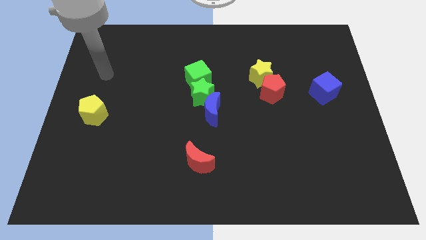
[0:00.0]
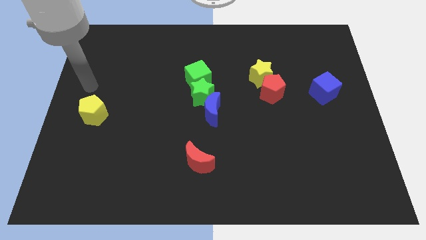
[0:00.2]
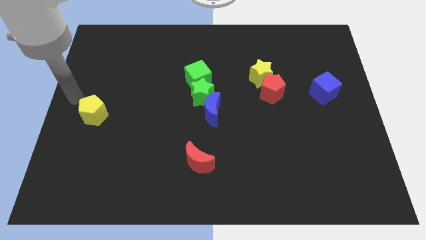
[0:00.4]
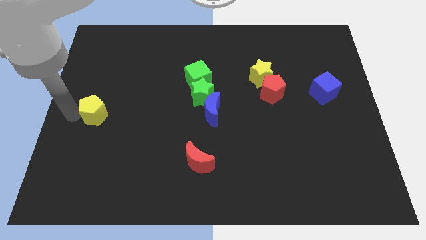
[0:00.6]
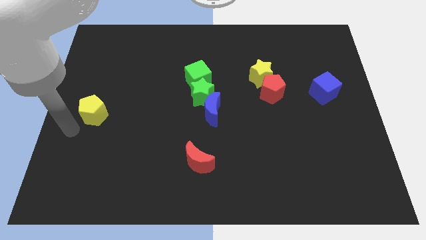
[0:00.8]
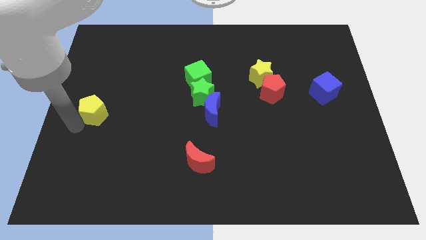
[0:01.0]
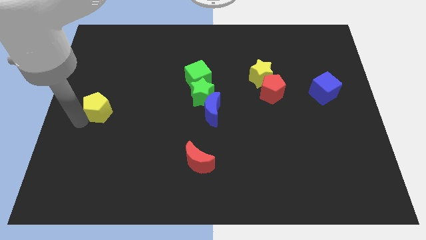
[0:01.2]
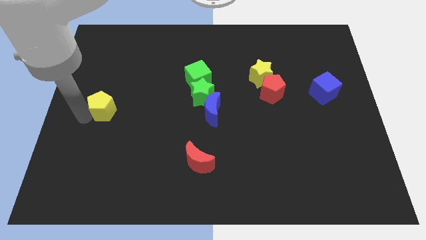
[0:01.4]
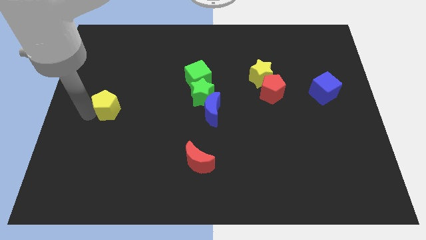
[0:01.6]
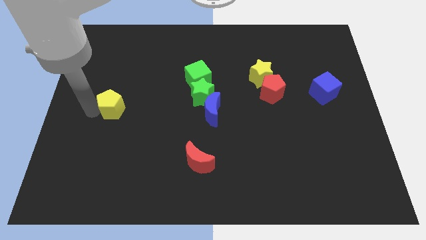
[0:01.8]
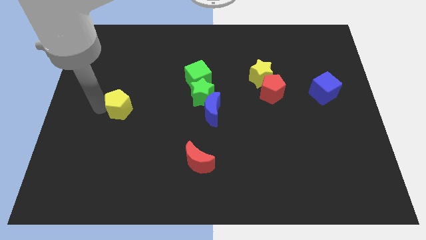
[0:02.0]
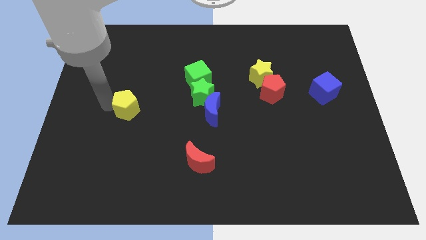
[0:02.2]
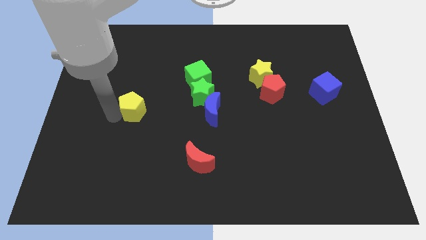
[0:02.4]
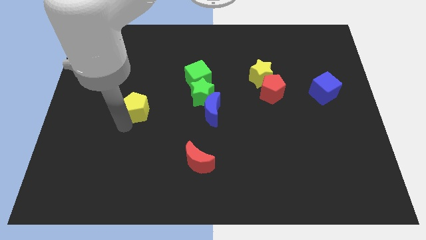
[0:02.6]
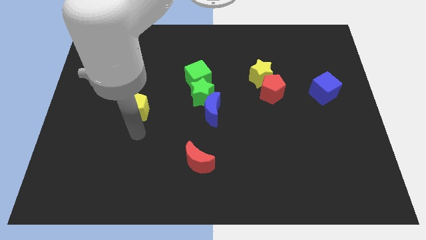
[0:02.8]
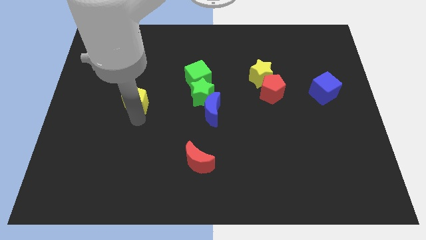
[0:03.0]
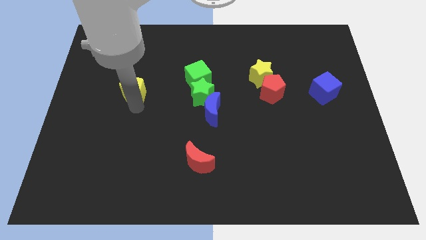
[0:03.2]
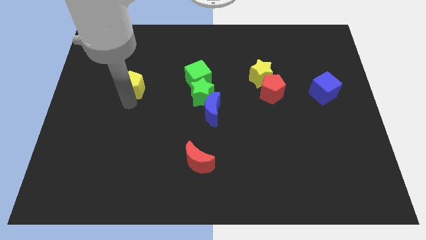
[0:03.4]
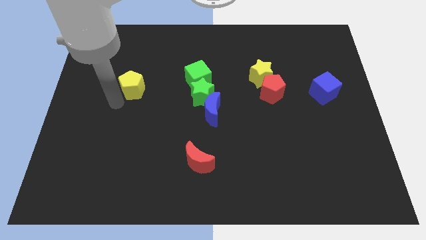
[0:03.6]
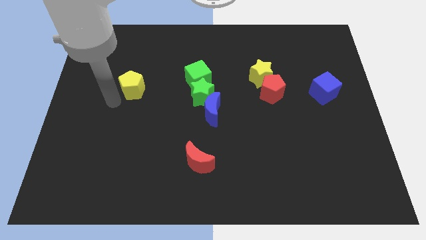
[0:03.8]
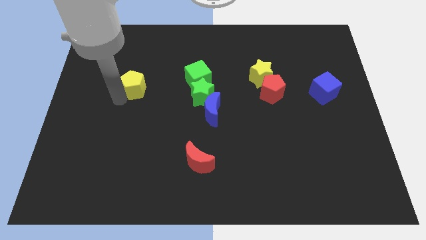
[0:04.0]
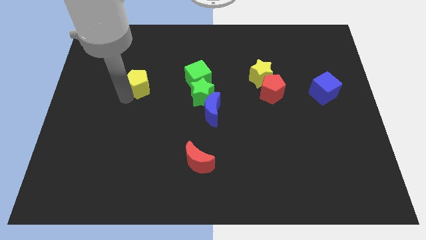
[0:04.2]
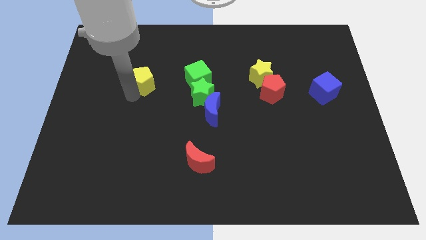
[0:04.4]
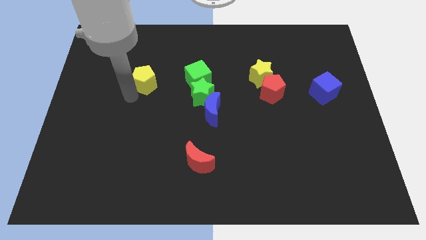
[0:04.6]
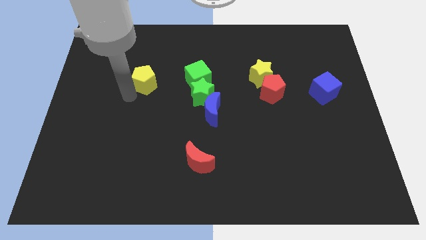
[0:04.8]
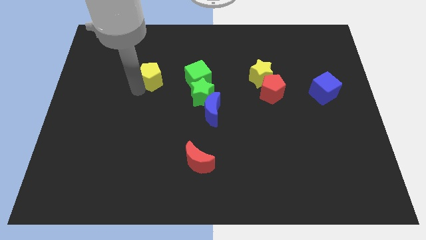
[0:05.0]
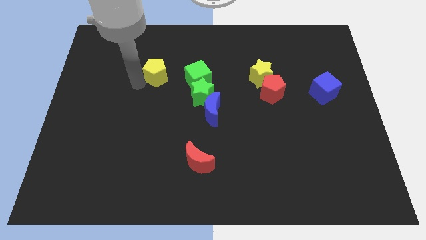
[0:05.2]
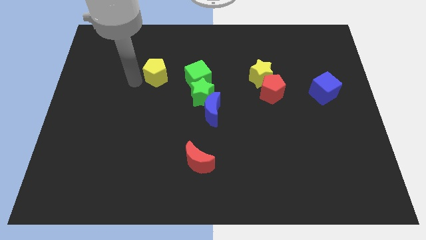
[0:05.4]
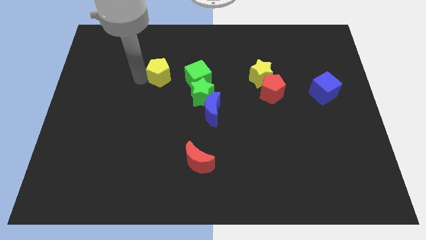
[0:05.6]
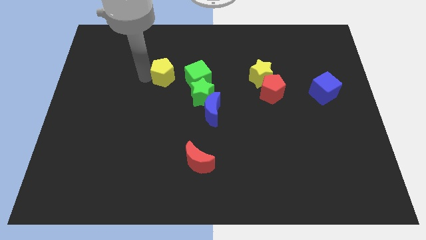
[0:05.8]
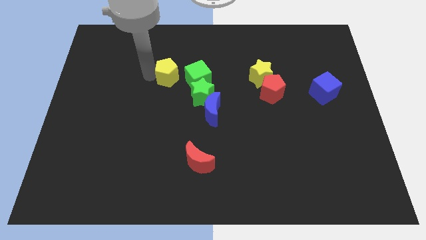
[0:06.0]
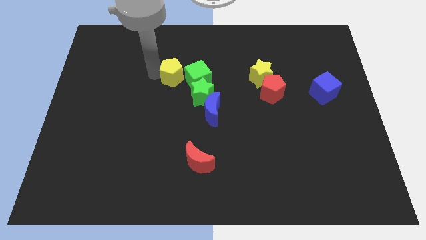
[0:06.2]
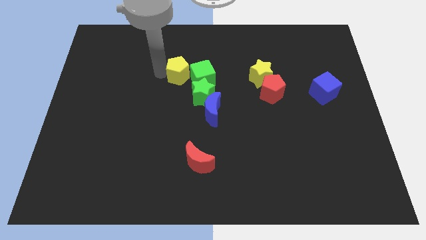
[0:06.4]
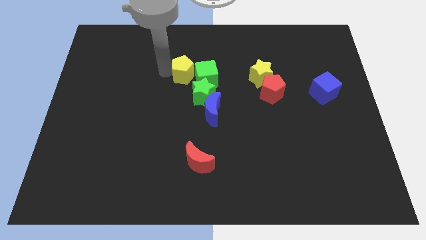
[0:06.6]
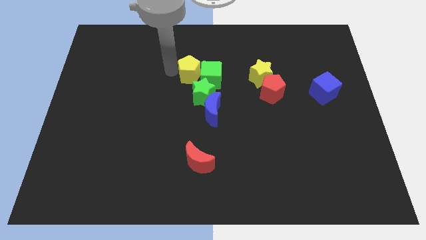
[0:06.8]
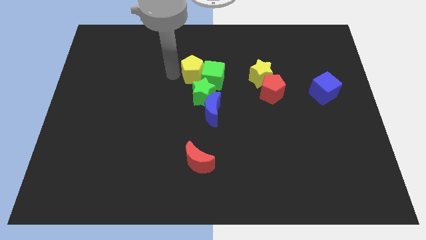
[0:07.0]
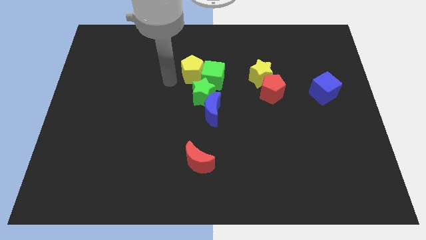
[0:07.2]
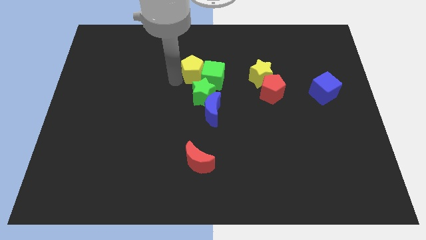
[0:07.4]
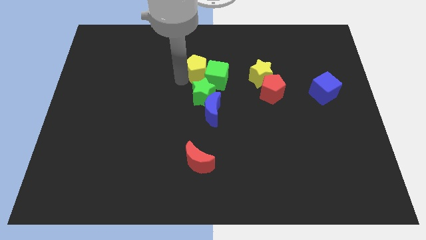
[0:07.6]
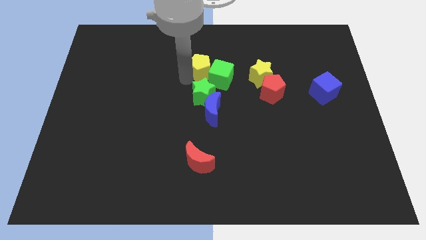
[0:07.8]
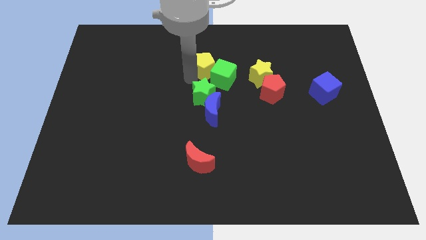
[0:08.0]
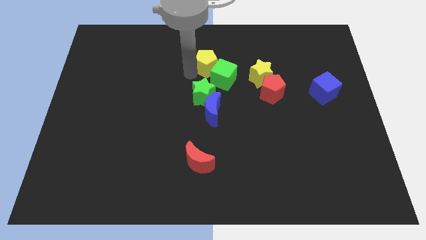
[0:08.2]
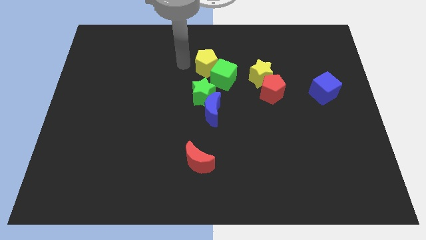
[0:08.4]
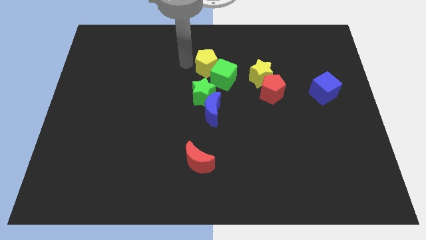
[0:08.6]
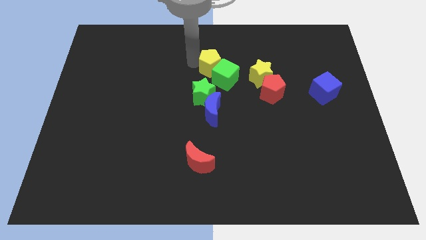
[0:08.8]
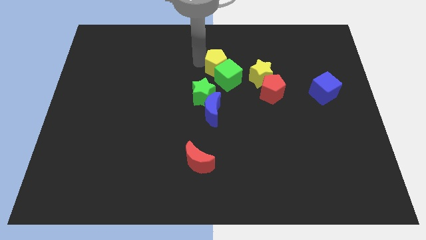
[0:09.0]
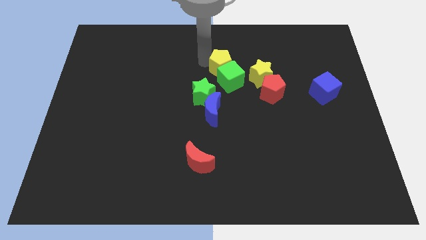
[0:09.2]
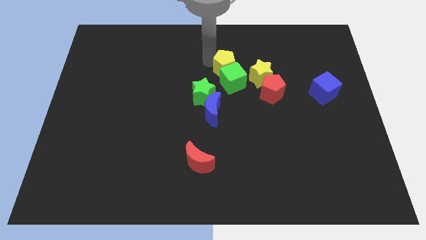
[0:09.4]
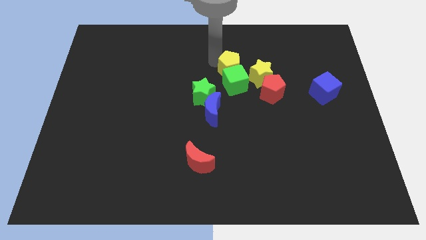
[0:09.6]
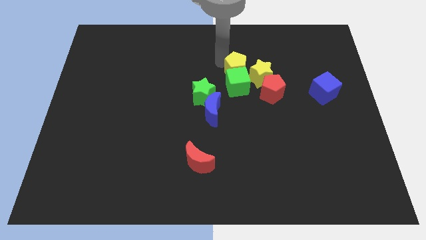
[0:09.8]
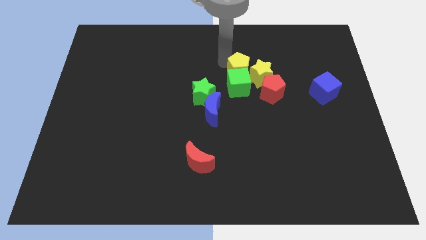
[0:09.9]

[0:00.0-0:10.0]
put the yellow pentagon towards the yellow star

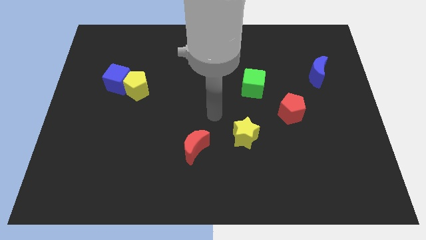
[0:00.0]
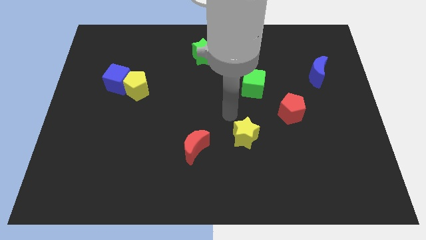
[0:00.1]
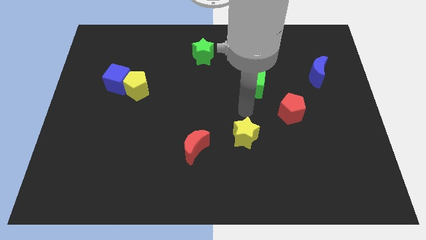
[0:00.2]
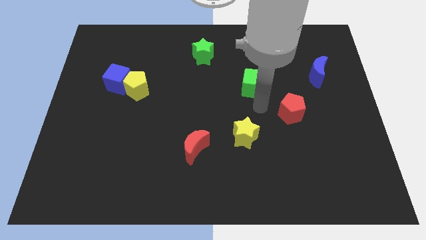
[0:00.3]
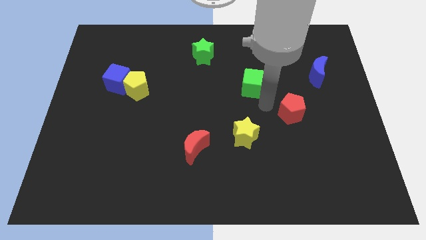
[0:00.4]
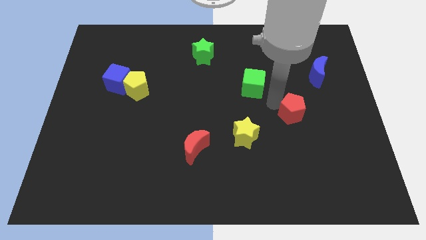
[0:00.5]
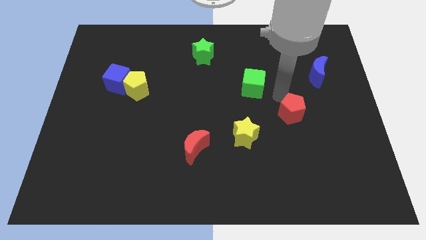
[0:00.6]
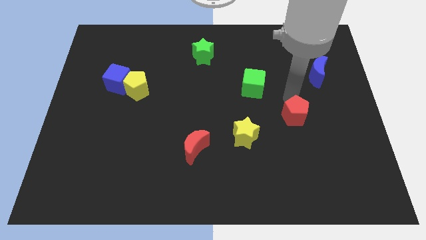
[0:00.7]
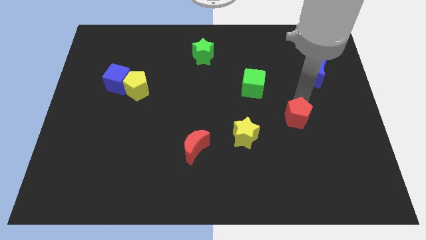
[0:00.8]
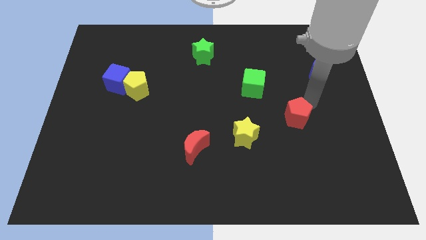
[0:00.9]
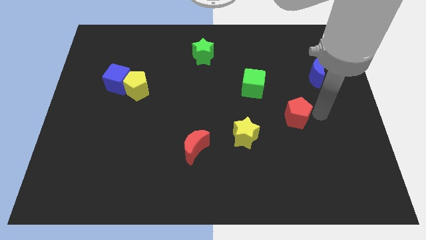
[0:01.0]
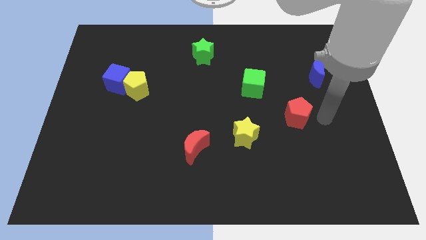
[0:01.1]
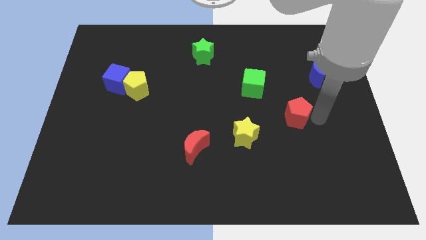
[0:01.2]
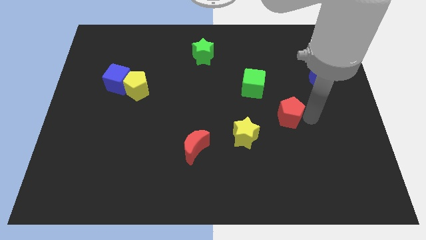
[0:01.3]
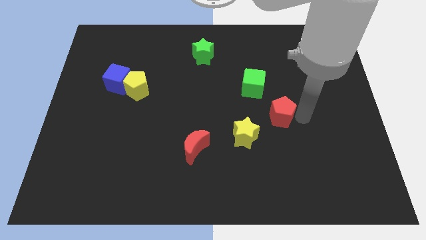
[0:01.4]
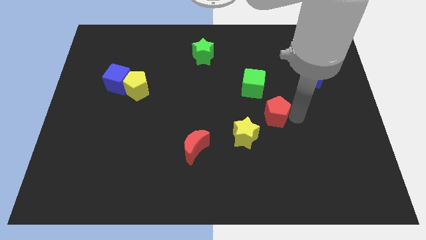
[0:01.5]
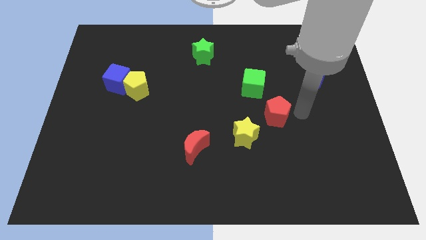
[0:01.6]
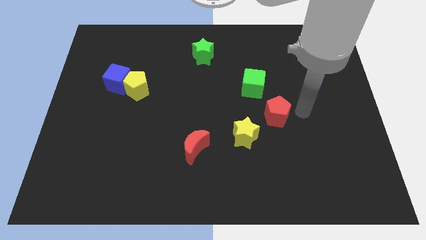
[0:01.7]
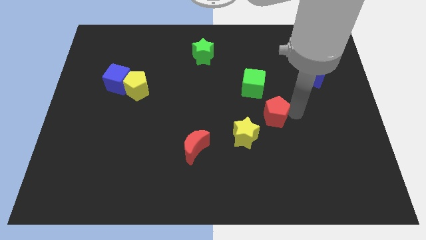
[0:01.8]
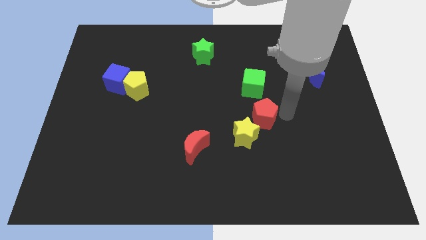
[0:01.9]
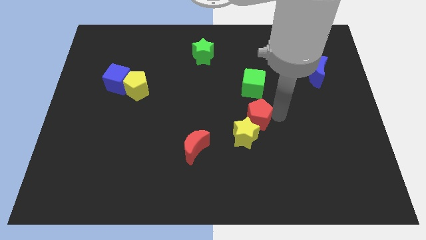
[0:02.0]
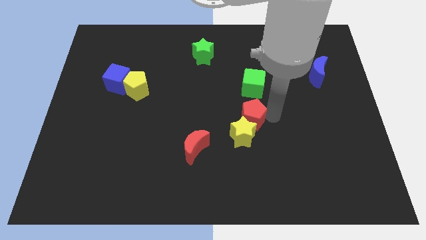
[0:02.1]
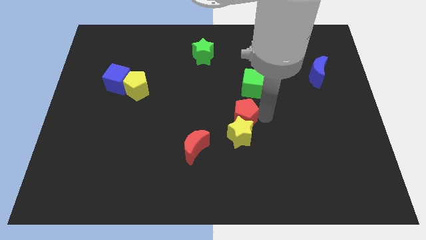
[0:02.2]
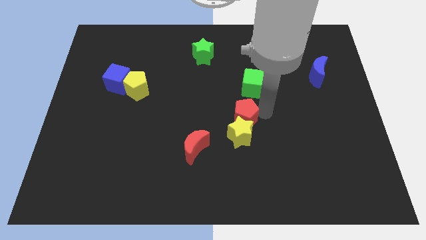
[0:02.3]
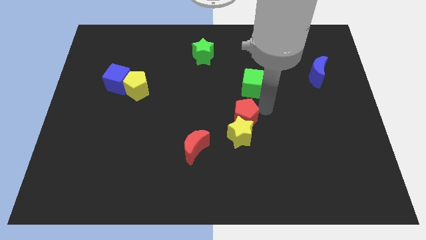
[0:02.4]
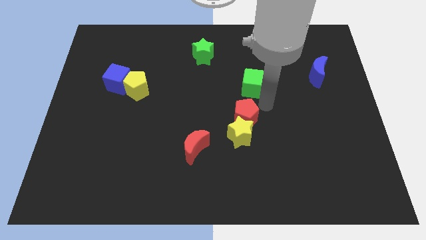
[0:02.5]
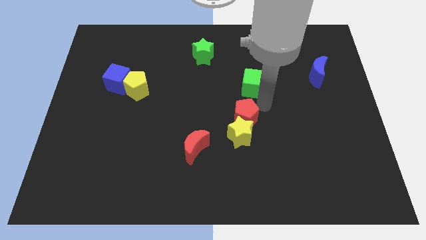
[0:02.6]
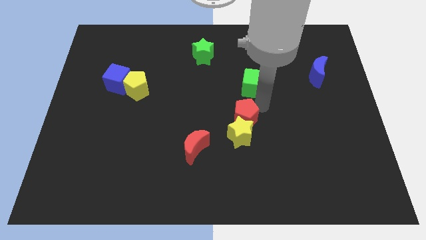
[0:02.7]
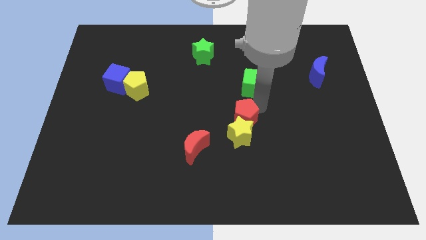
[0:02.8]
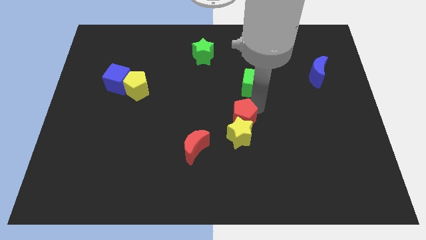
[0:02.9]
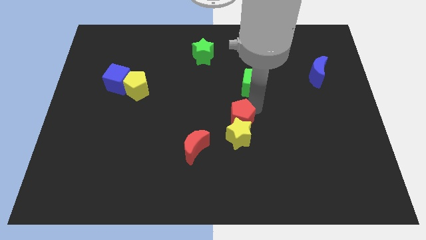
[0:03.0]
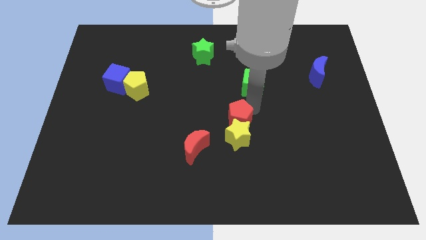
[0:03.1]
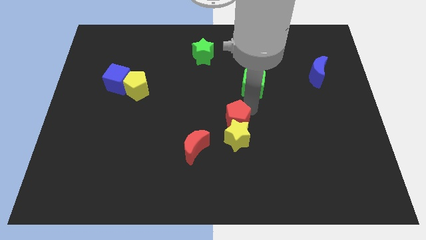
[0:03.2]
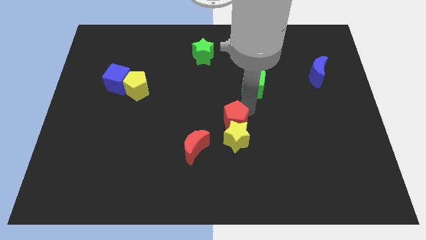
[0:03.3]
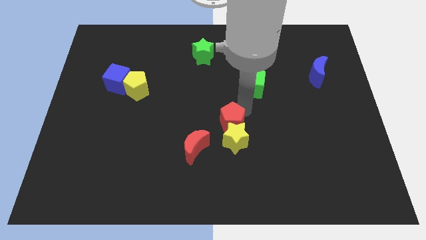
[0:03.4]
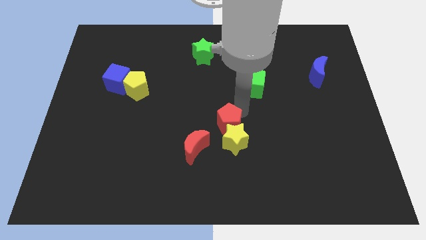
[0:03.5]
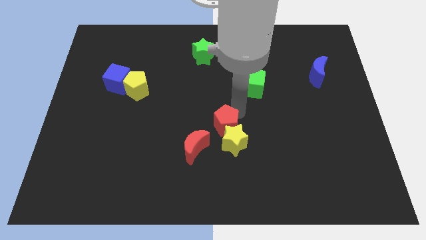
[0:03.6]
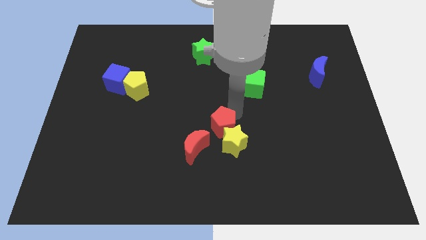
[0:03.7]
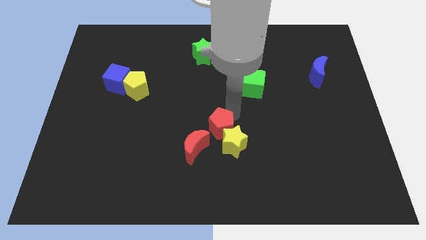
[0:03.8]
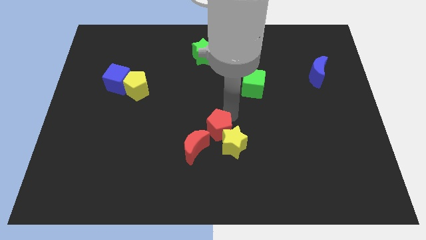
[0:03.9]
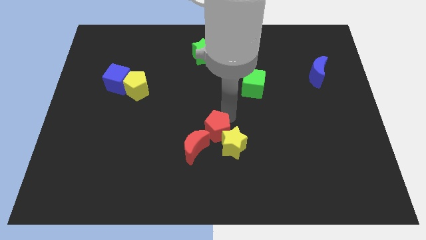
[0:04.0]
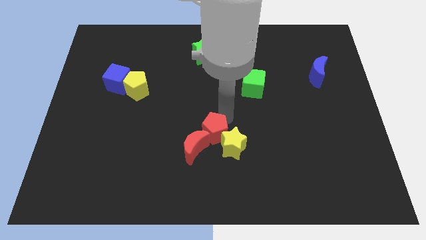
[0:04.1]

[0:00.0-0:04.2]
push the red pentagon close to the red moon
